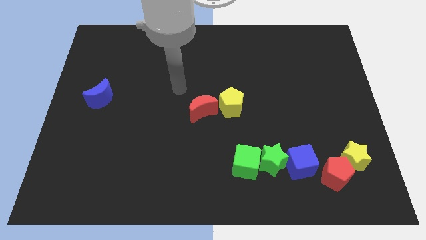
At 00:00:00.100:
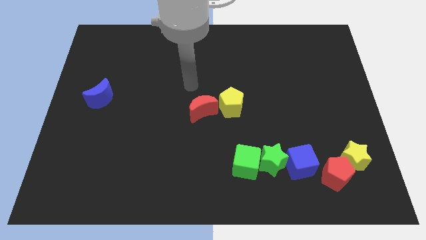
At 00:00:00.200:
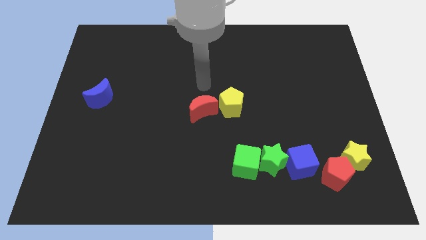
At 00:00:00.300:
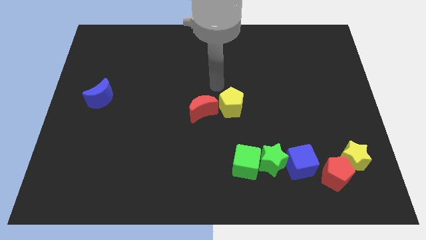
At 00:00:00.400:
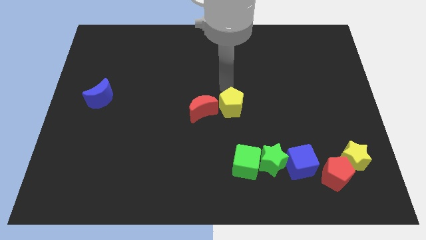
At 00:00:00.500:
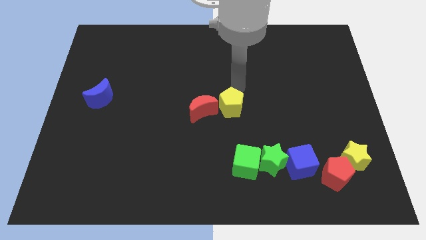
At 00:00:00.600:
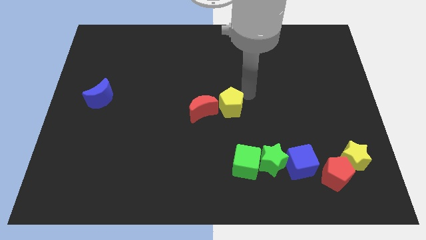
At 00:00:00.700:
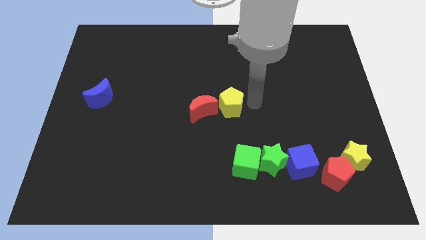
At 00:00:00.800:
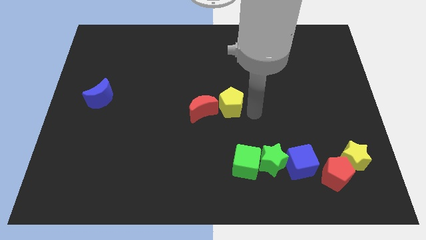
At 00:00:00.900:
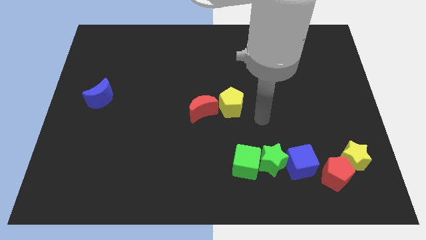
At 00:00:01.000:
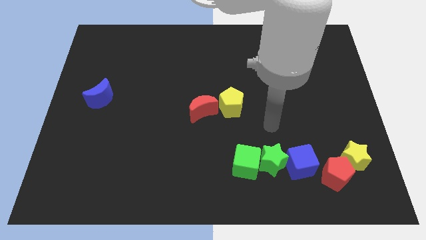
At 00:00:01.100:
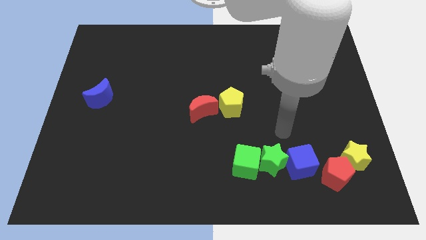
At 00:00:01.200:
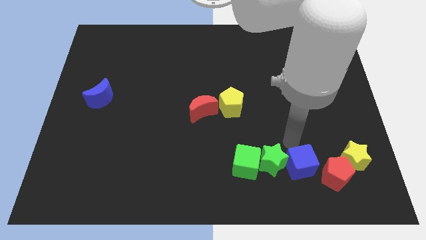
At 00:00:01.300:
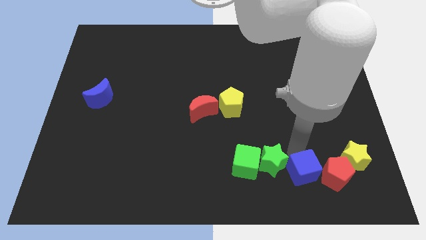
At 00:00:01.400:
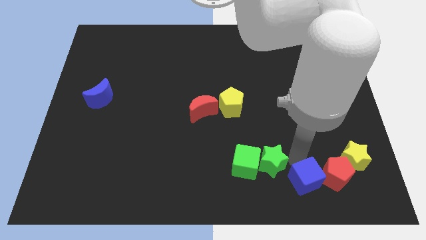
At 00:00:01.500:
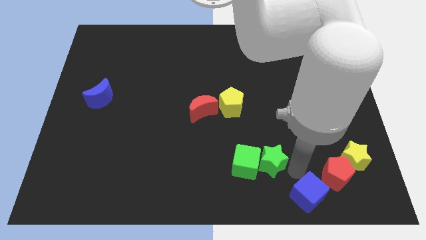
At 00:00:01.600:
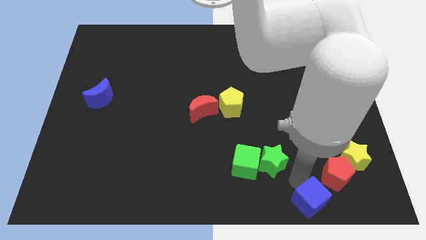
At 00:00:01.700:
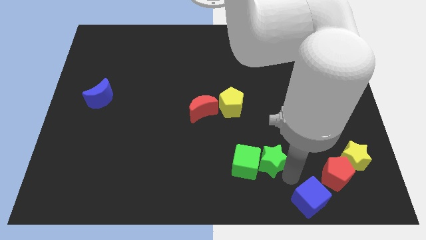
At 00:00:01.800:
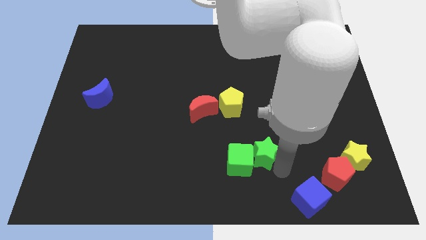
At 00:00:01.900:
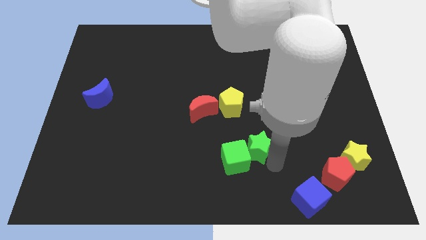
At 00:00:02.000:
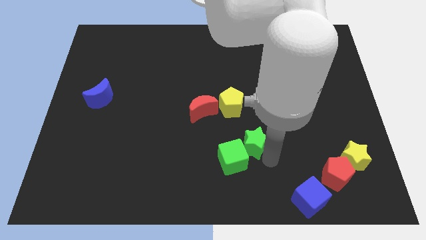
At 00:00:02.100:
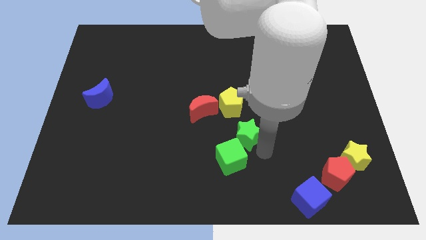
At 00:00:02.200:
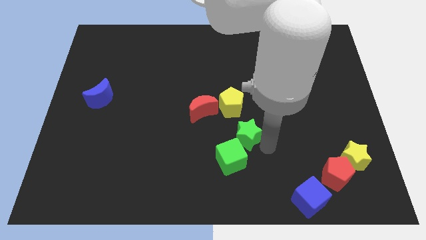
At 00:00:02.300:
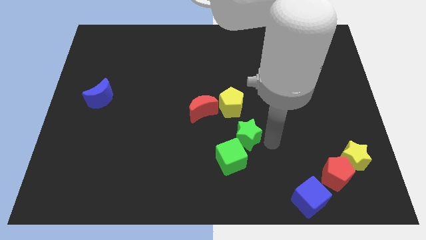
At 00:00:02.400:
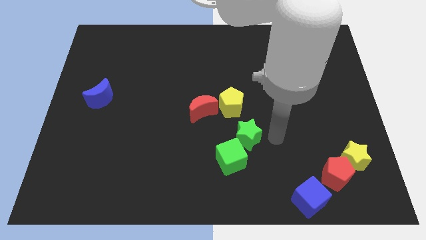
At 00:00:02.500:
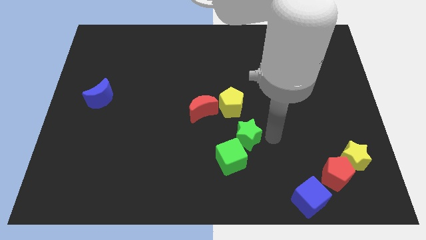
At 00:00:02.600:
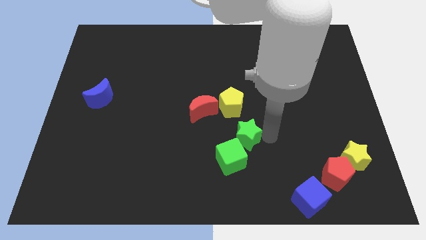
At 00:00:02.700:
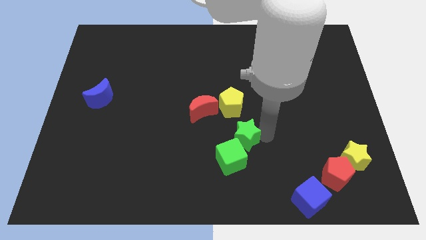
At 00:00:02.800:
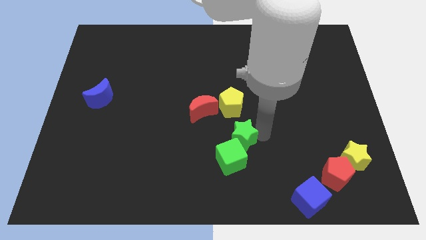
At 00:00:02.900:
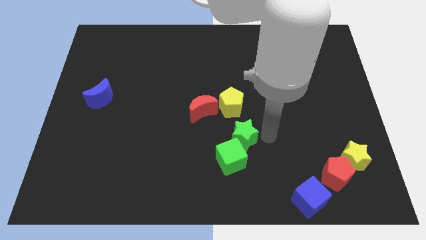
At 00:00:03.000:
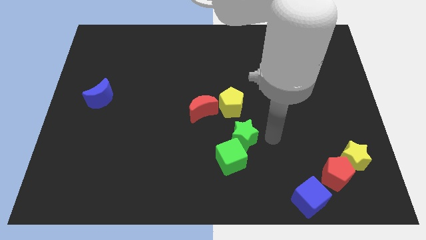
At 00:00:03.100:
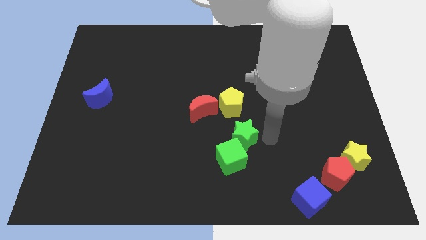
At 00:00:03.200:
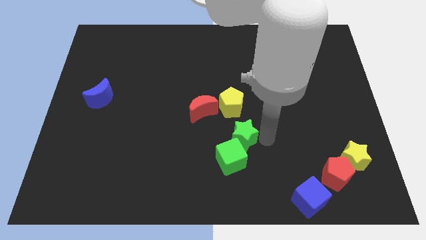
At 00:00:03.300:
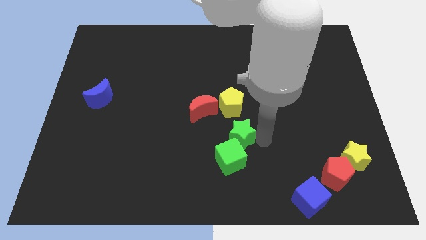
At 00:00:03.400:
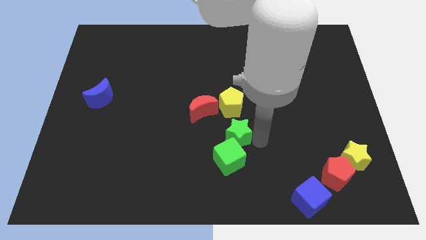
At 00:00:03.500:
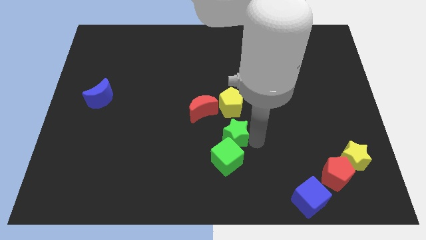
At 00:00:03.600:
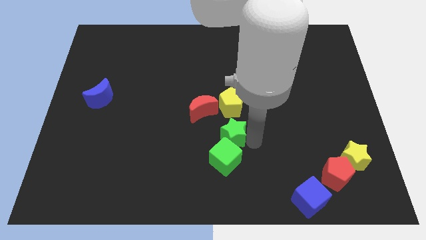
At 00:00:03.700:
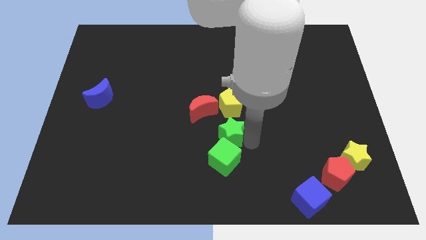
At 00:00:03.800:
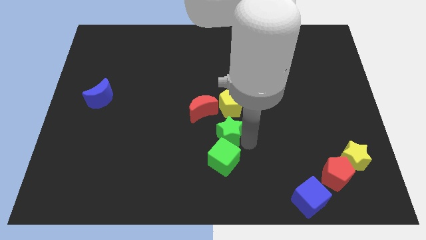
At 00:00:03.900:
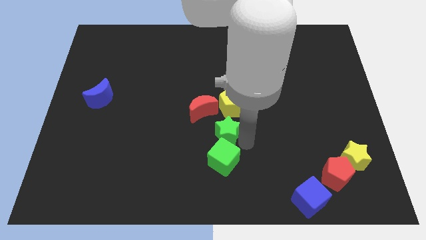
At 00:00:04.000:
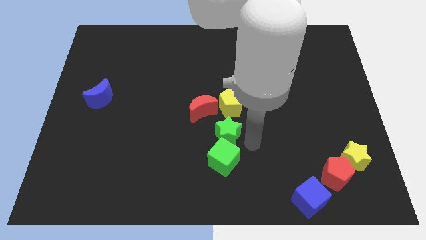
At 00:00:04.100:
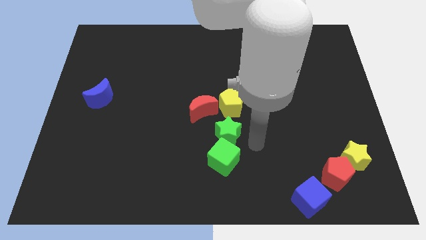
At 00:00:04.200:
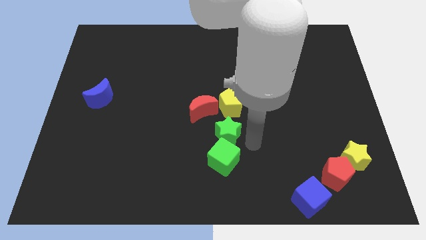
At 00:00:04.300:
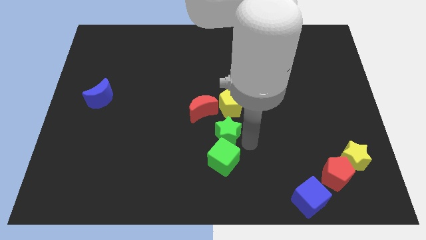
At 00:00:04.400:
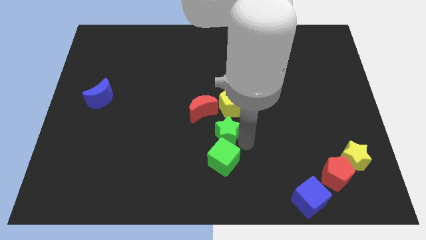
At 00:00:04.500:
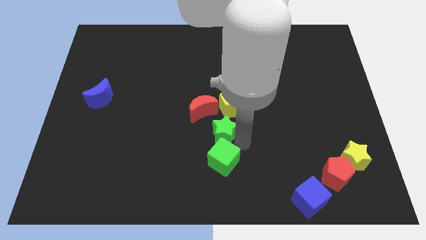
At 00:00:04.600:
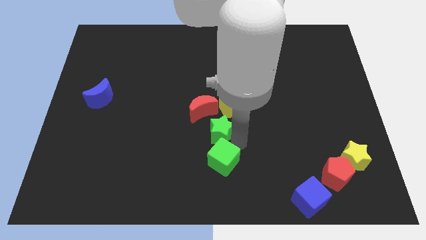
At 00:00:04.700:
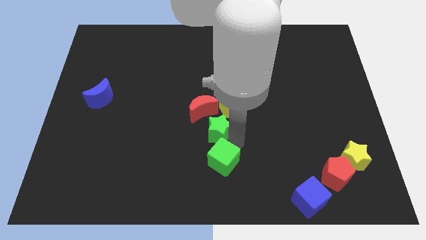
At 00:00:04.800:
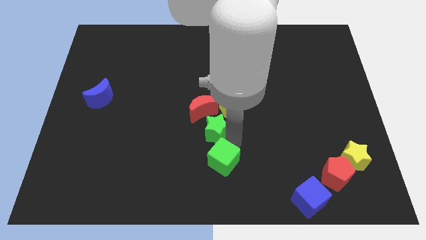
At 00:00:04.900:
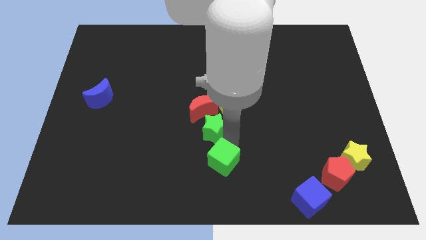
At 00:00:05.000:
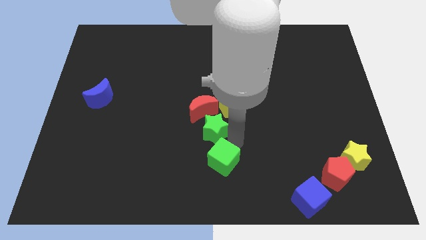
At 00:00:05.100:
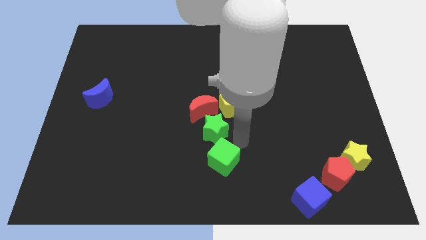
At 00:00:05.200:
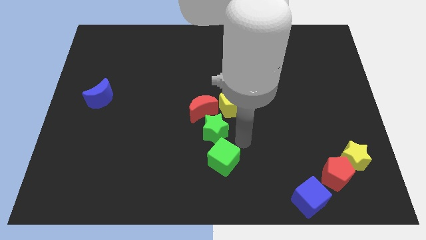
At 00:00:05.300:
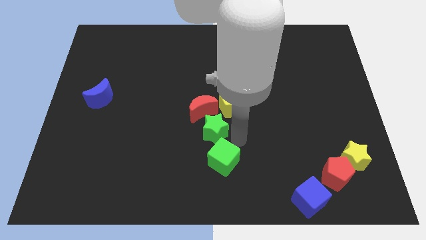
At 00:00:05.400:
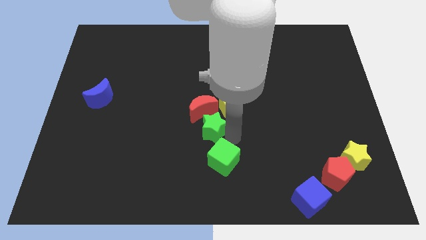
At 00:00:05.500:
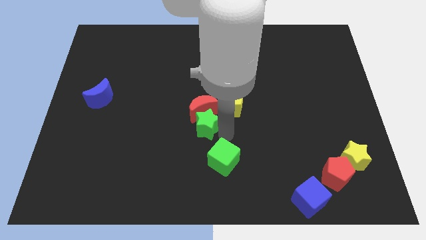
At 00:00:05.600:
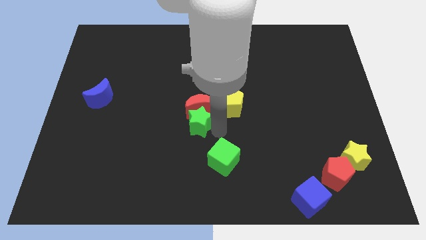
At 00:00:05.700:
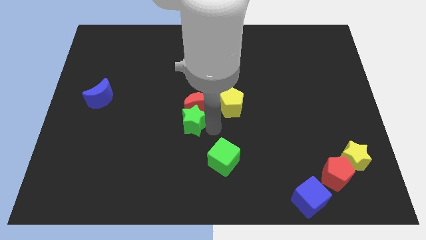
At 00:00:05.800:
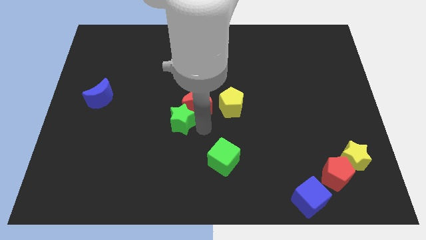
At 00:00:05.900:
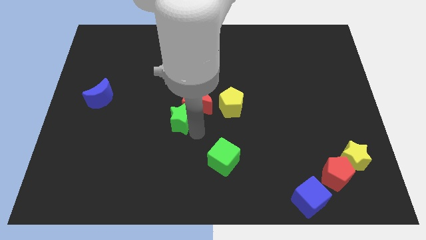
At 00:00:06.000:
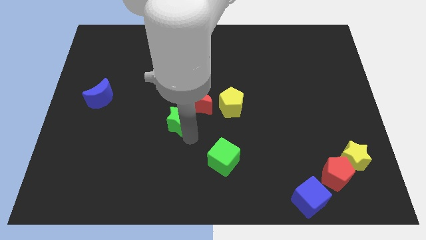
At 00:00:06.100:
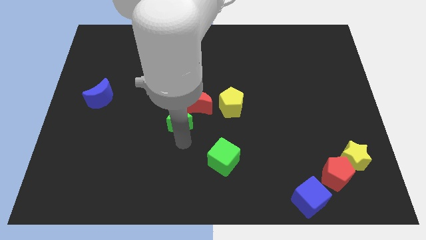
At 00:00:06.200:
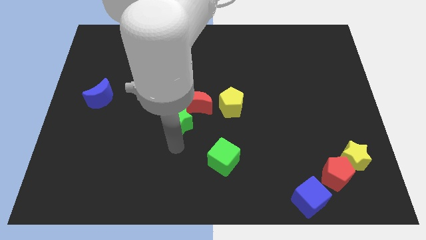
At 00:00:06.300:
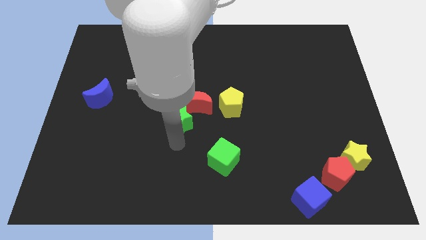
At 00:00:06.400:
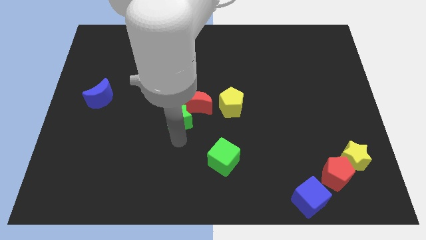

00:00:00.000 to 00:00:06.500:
slide the green star diagonally up and left

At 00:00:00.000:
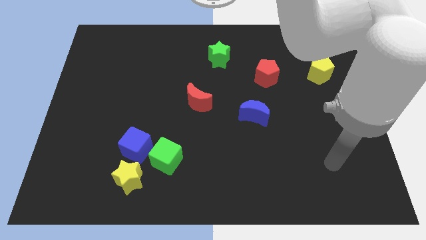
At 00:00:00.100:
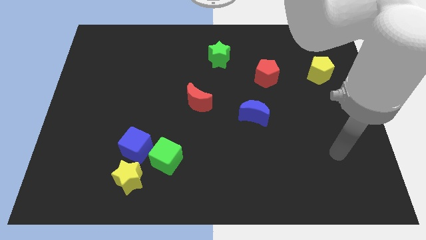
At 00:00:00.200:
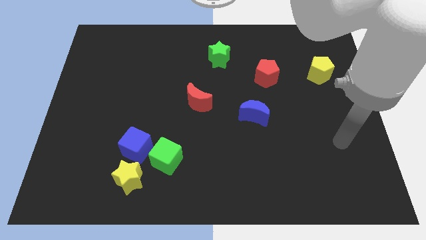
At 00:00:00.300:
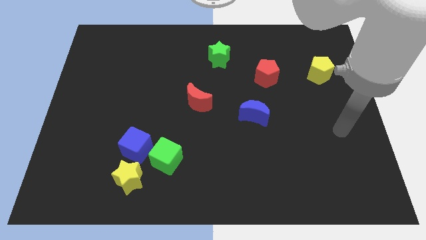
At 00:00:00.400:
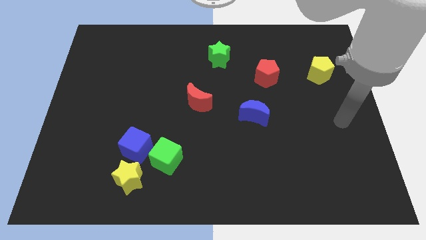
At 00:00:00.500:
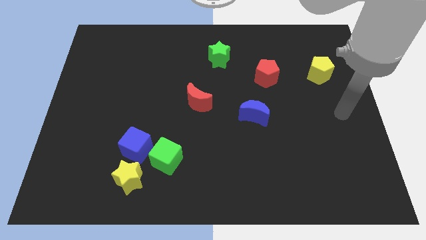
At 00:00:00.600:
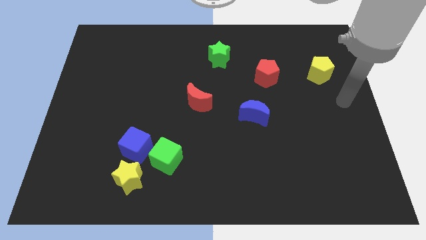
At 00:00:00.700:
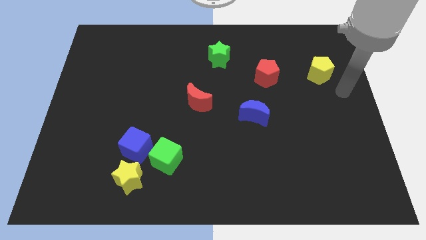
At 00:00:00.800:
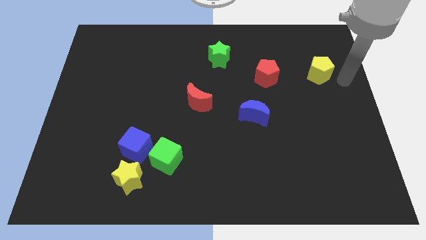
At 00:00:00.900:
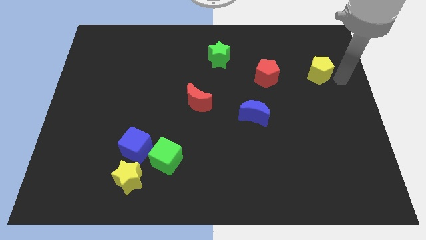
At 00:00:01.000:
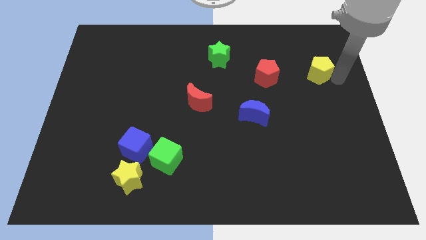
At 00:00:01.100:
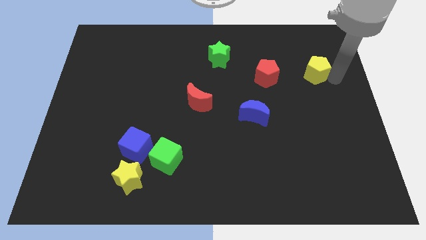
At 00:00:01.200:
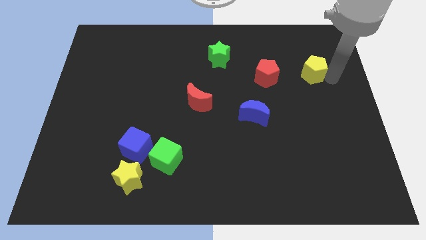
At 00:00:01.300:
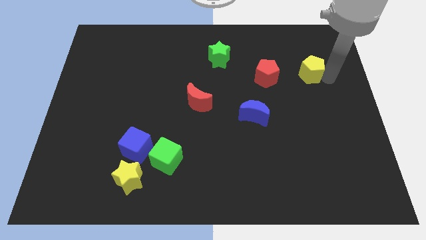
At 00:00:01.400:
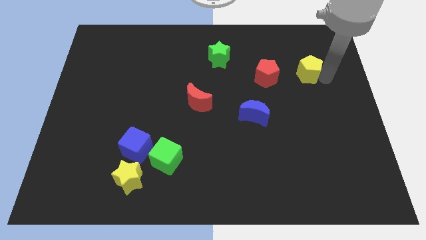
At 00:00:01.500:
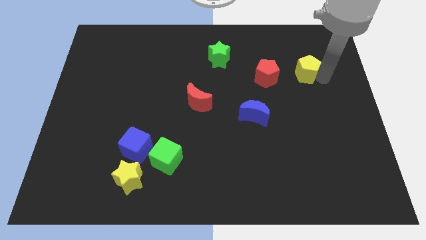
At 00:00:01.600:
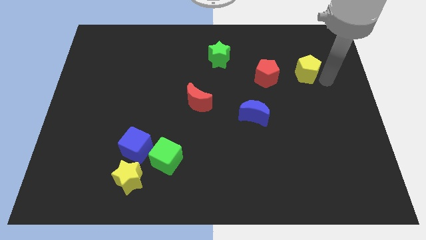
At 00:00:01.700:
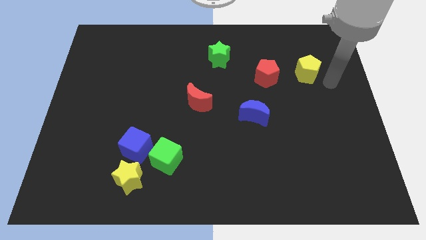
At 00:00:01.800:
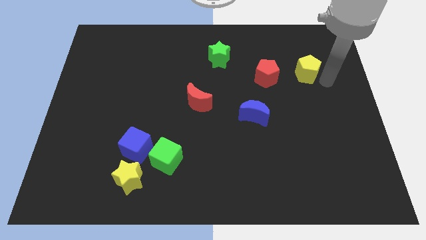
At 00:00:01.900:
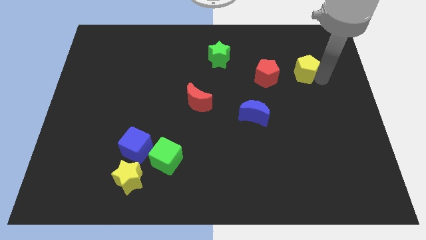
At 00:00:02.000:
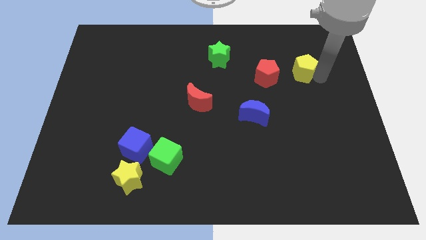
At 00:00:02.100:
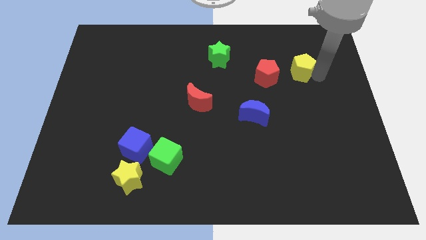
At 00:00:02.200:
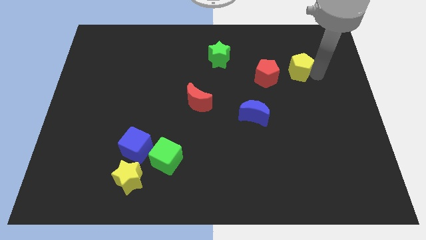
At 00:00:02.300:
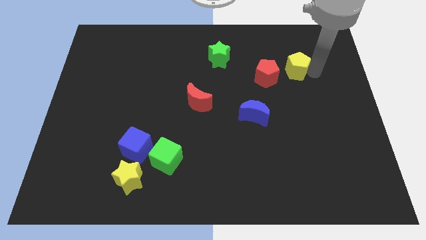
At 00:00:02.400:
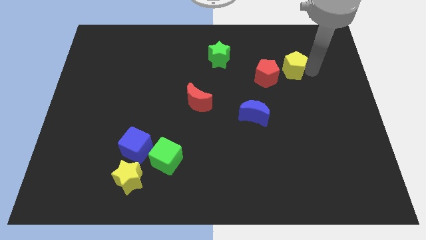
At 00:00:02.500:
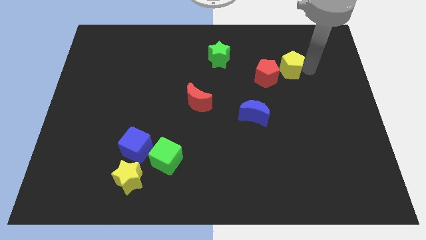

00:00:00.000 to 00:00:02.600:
move the yellow pentagon left somewhat
